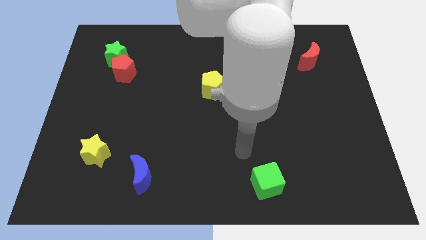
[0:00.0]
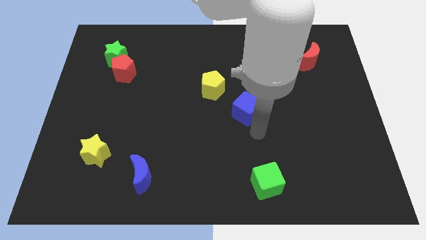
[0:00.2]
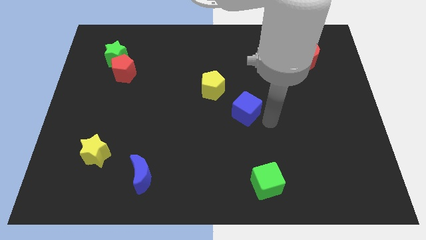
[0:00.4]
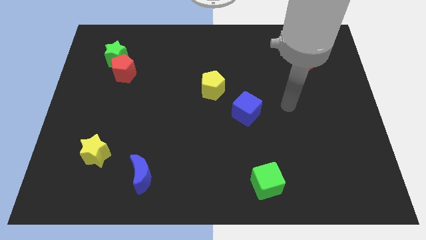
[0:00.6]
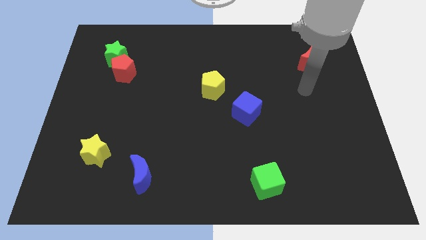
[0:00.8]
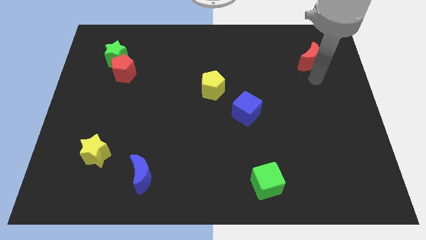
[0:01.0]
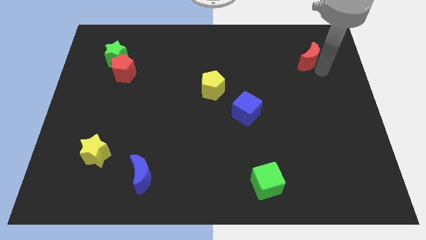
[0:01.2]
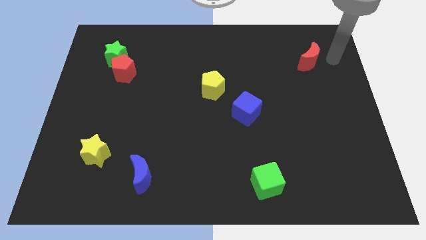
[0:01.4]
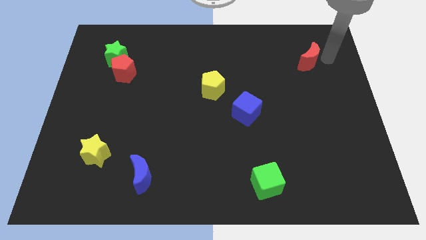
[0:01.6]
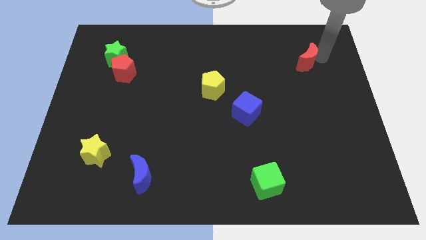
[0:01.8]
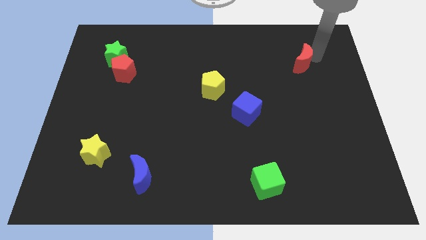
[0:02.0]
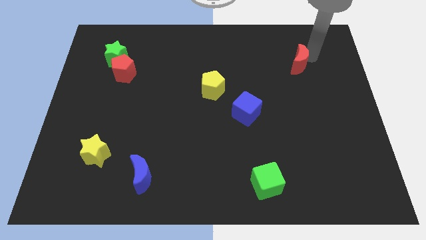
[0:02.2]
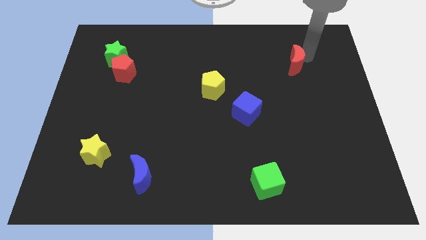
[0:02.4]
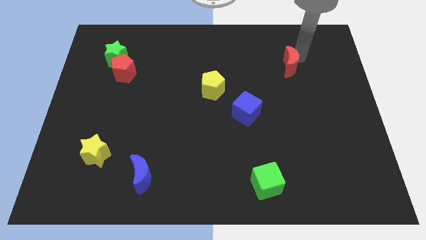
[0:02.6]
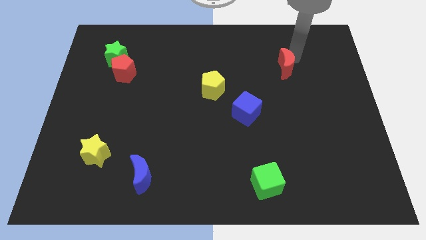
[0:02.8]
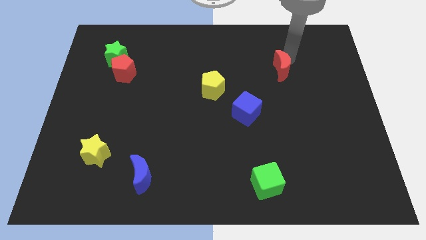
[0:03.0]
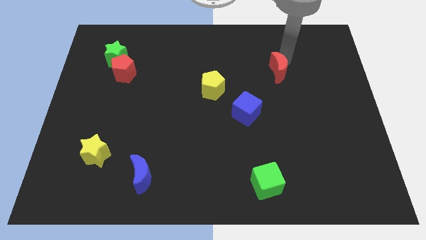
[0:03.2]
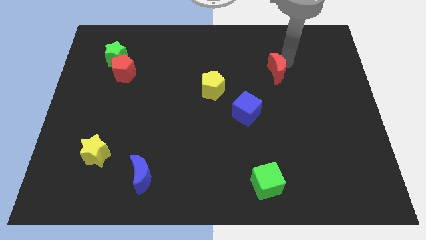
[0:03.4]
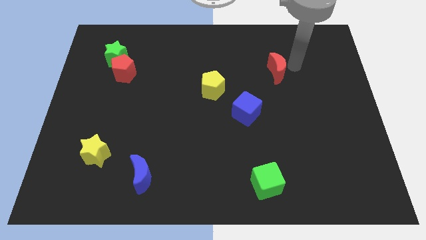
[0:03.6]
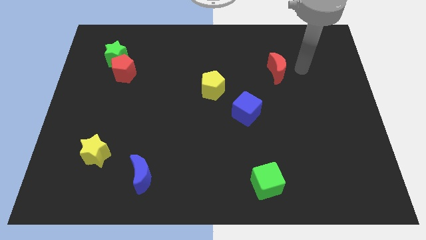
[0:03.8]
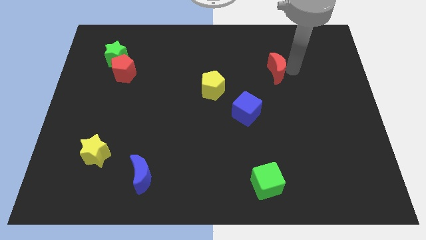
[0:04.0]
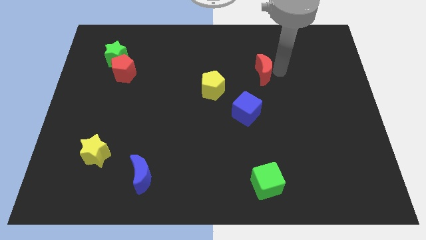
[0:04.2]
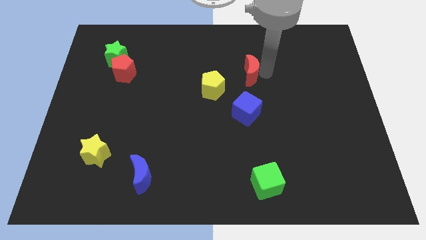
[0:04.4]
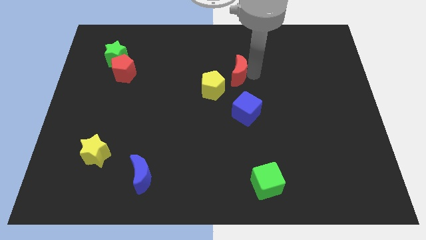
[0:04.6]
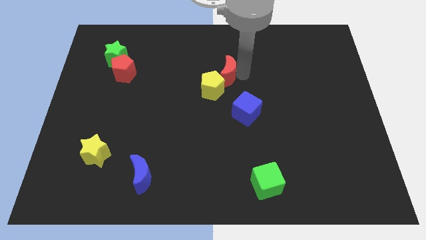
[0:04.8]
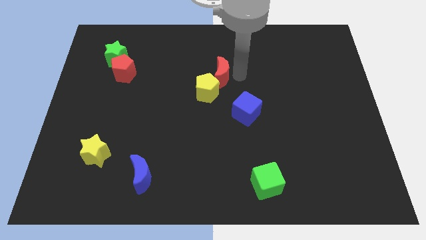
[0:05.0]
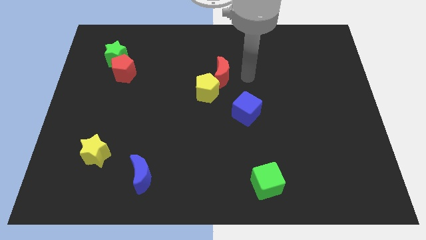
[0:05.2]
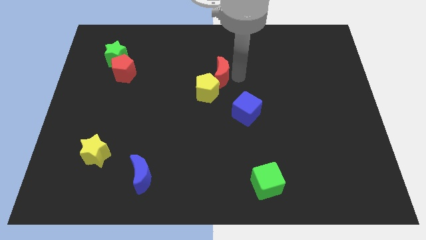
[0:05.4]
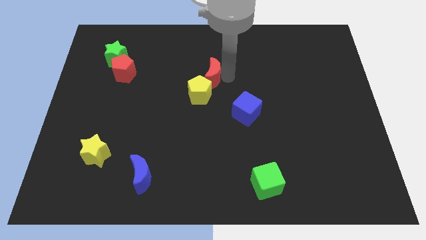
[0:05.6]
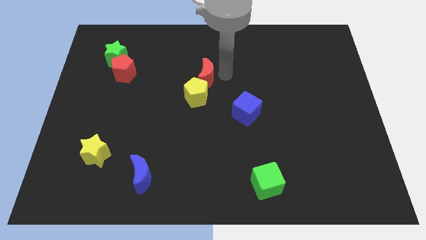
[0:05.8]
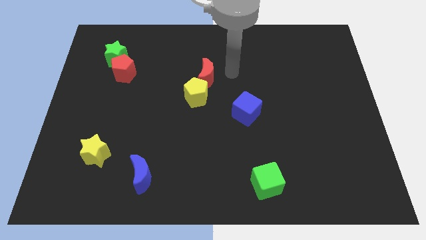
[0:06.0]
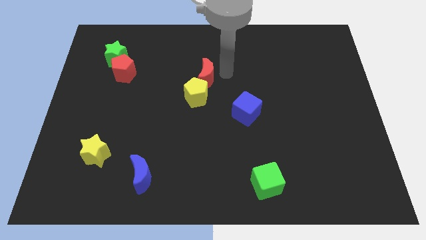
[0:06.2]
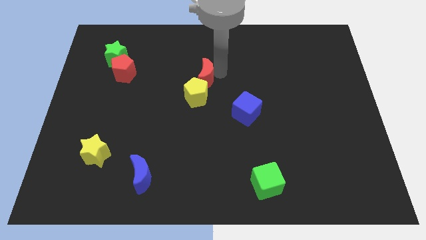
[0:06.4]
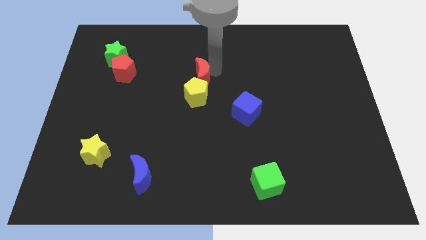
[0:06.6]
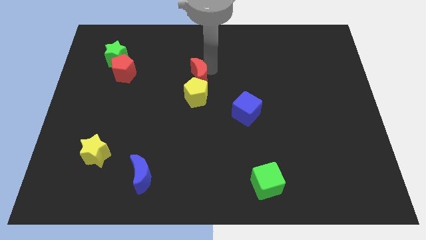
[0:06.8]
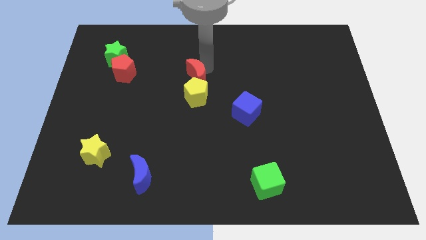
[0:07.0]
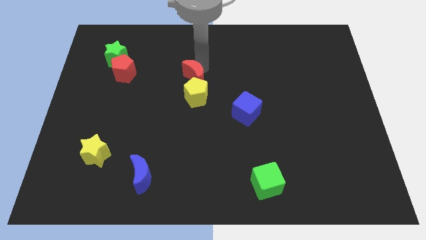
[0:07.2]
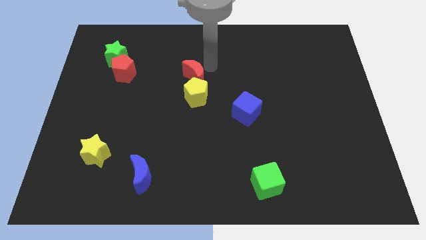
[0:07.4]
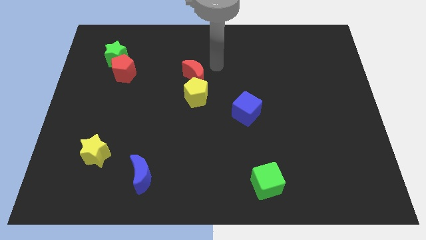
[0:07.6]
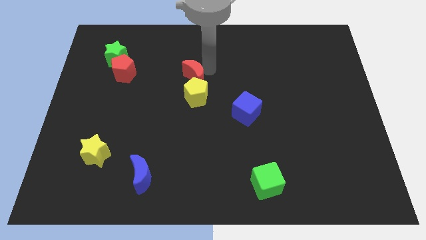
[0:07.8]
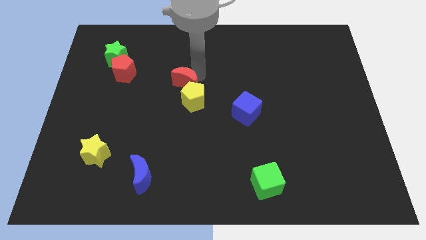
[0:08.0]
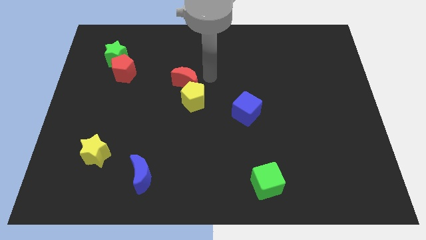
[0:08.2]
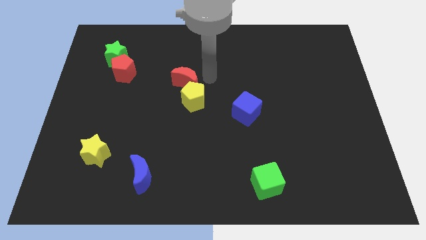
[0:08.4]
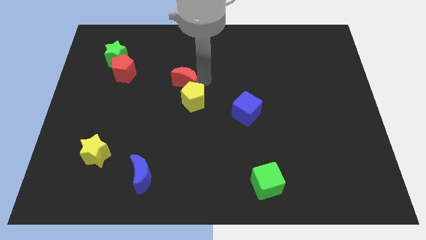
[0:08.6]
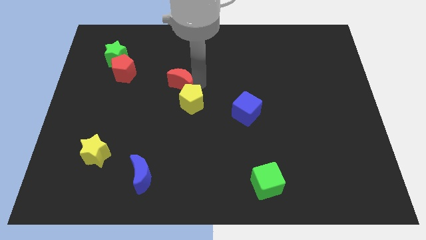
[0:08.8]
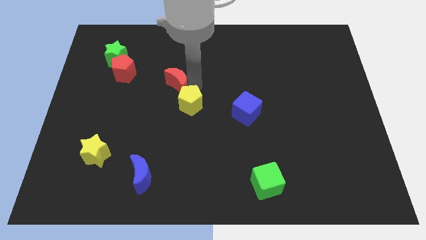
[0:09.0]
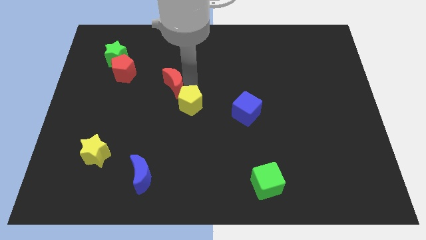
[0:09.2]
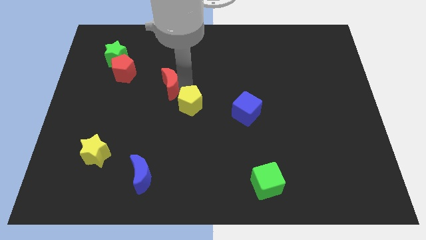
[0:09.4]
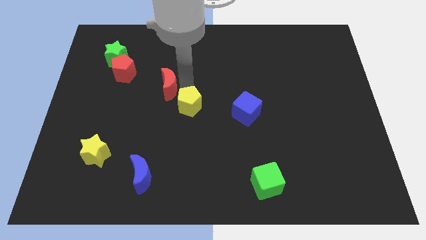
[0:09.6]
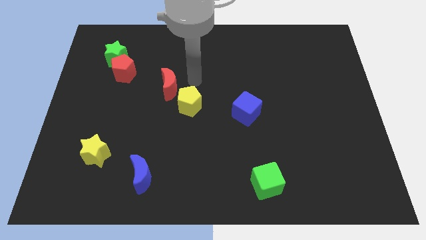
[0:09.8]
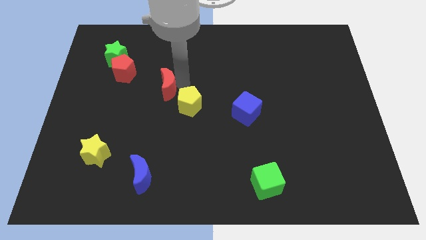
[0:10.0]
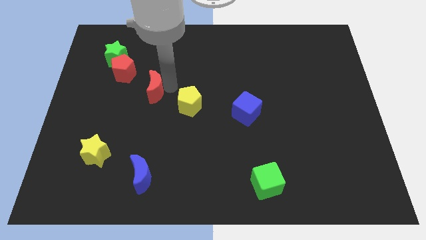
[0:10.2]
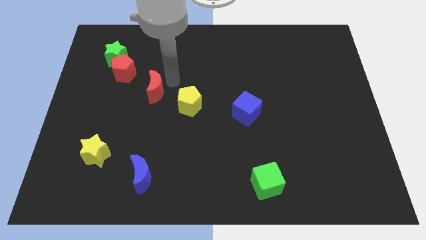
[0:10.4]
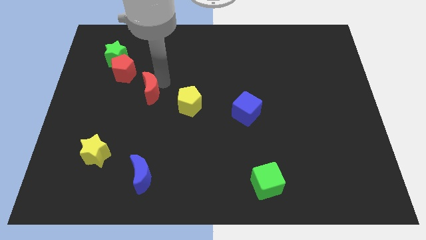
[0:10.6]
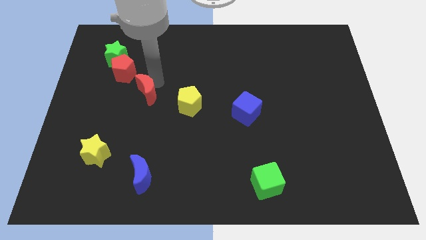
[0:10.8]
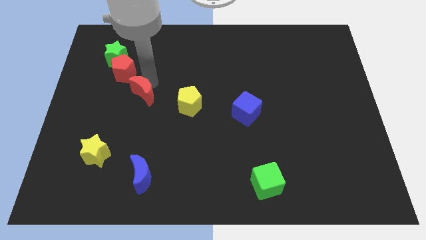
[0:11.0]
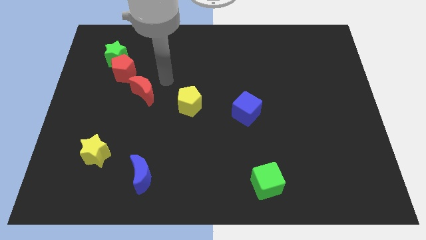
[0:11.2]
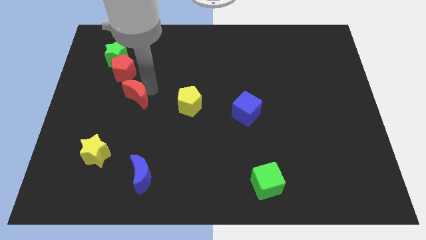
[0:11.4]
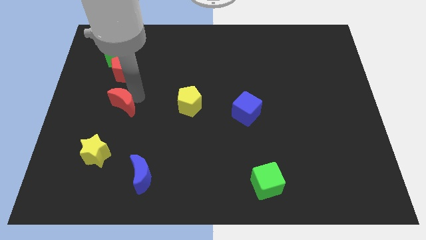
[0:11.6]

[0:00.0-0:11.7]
slide the red moon to the top of the yellow star

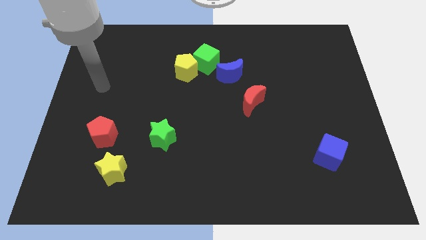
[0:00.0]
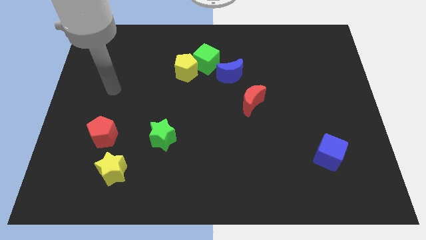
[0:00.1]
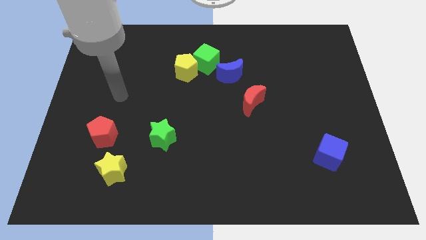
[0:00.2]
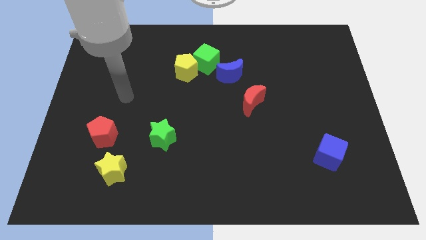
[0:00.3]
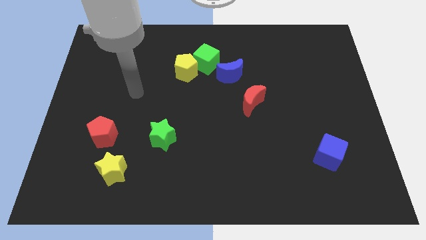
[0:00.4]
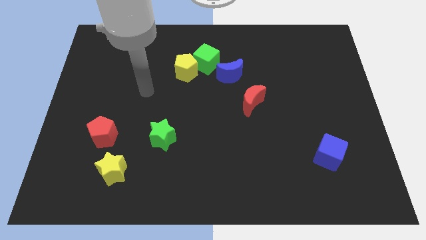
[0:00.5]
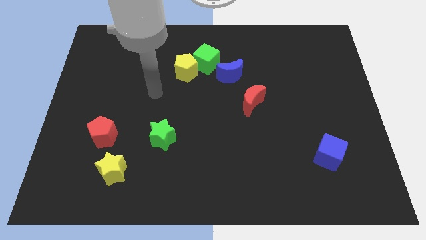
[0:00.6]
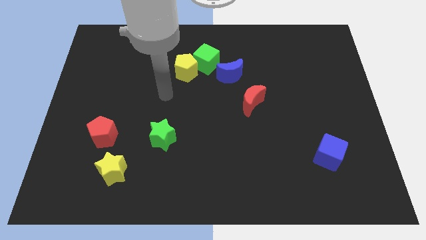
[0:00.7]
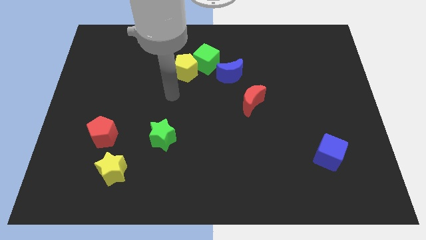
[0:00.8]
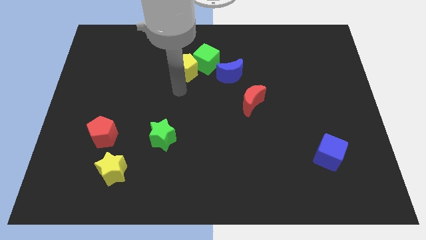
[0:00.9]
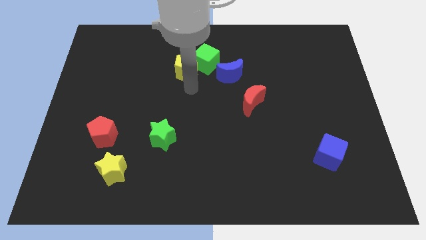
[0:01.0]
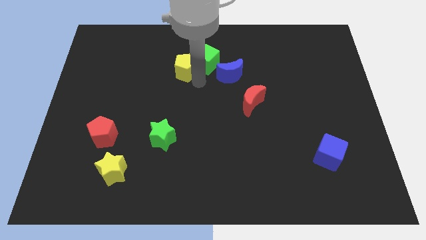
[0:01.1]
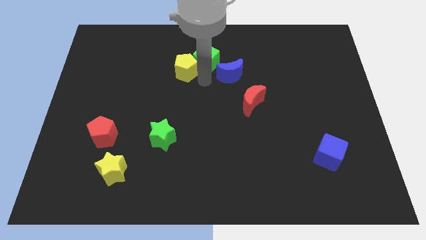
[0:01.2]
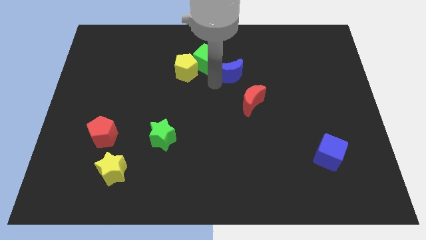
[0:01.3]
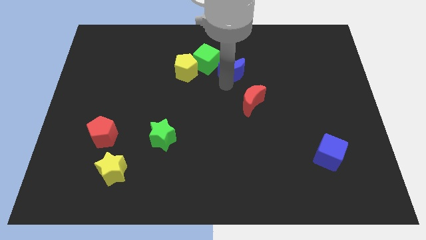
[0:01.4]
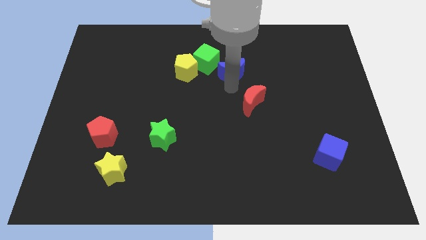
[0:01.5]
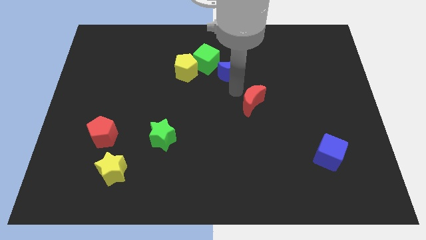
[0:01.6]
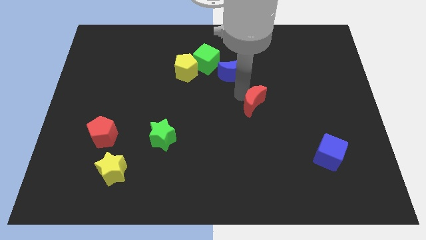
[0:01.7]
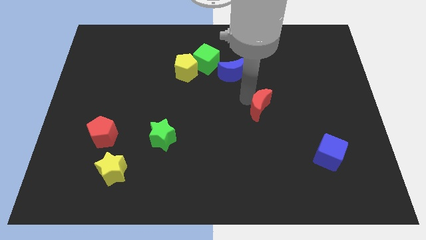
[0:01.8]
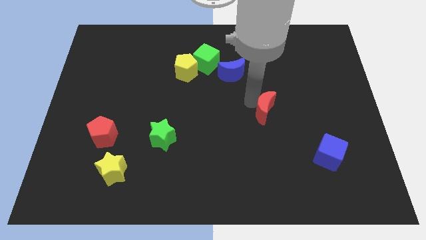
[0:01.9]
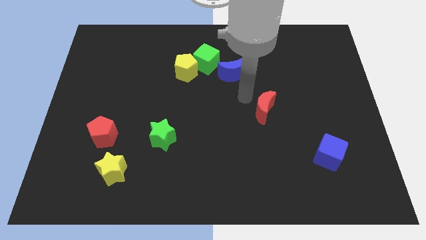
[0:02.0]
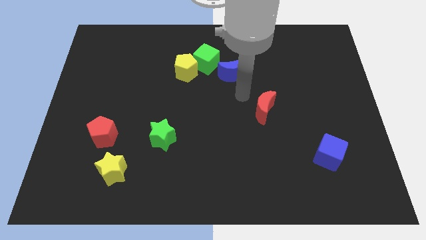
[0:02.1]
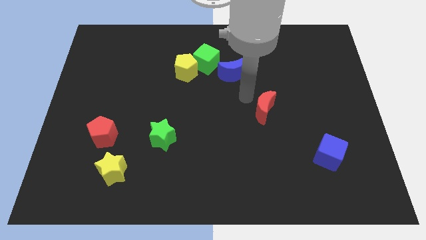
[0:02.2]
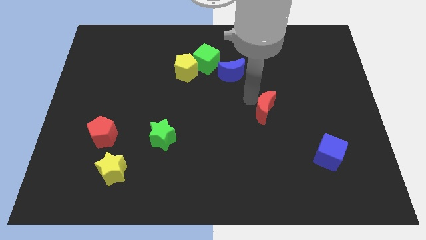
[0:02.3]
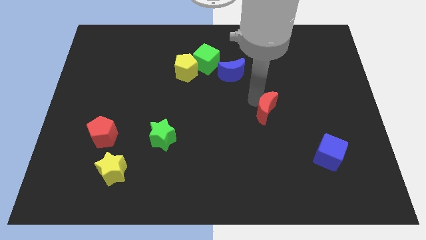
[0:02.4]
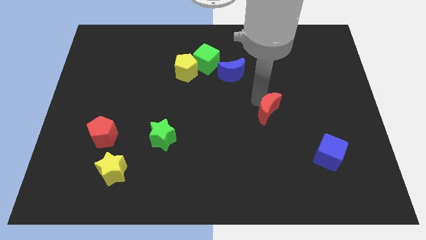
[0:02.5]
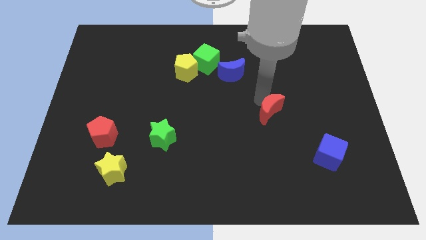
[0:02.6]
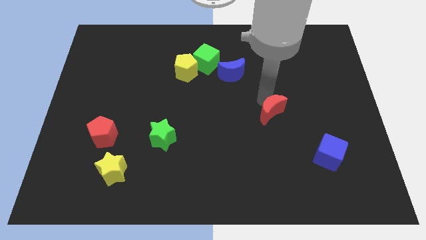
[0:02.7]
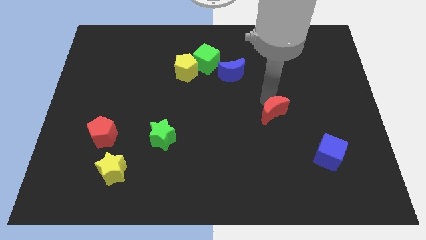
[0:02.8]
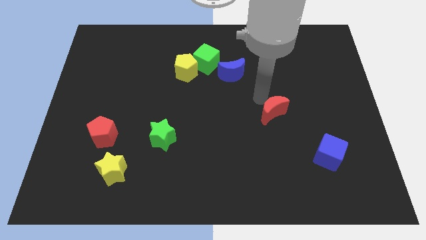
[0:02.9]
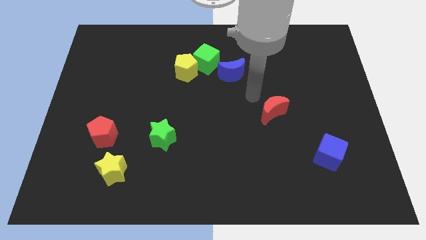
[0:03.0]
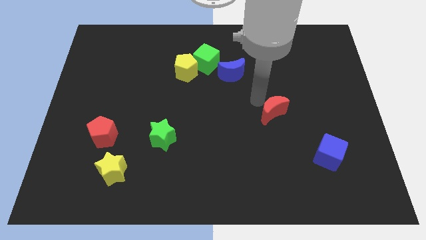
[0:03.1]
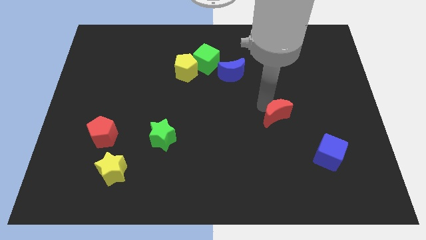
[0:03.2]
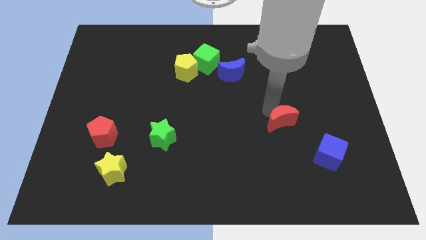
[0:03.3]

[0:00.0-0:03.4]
slide the red moon diagonally up and to the left of the blue cube
